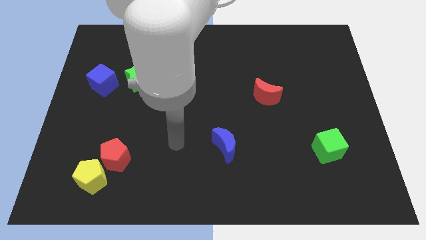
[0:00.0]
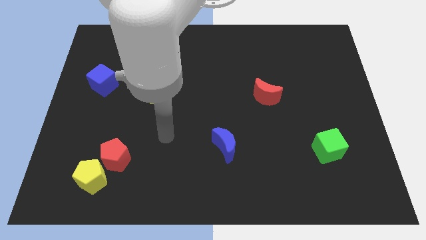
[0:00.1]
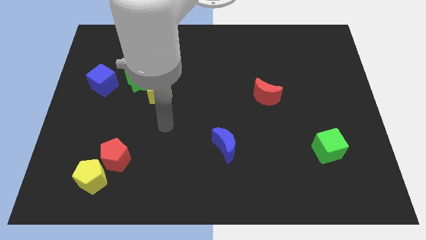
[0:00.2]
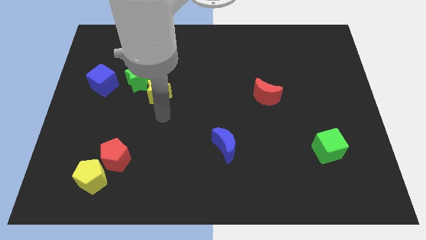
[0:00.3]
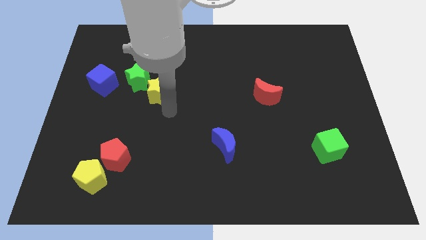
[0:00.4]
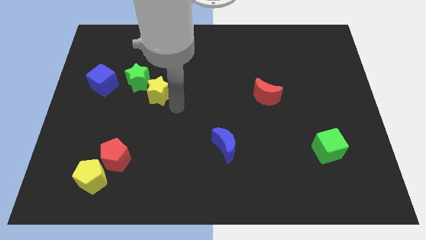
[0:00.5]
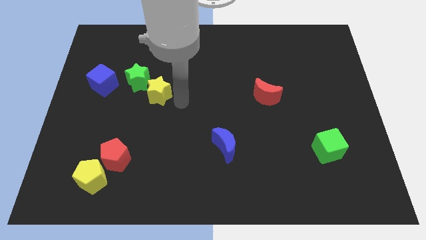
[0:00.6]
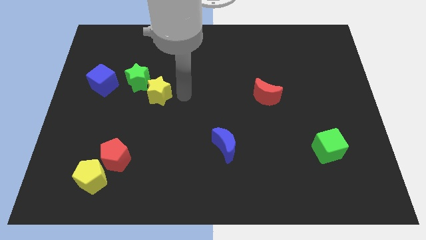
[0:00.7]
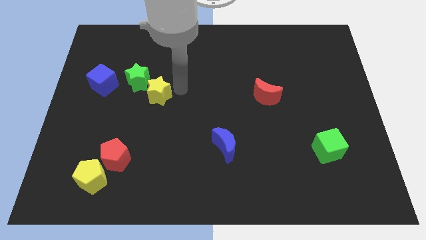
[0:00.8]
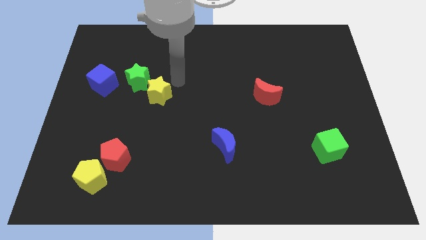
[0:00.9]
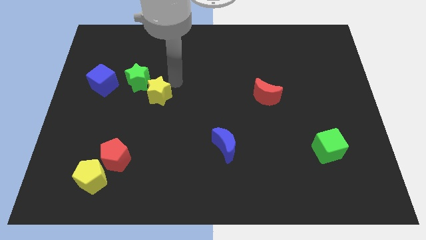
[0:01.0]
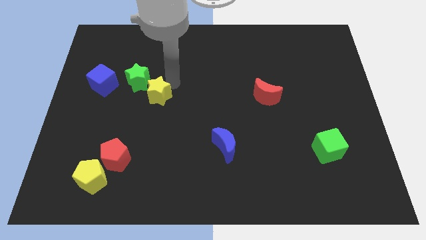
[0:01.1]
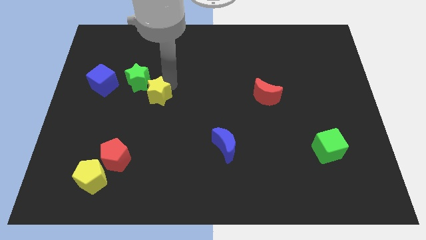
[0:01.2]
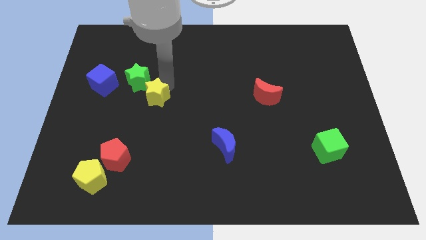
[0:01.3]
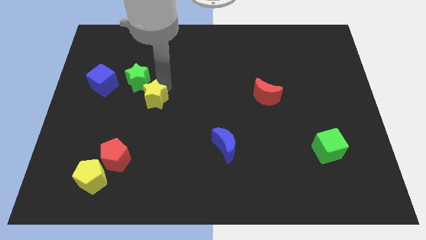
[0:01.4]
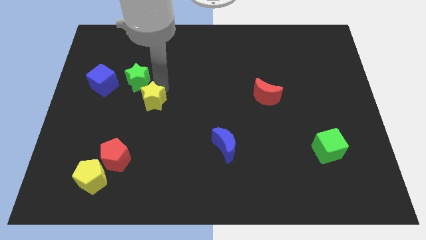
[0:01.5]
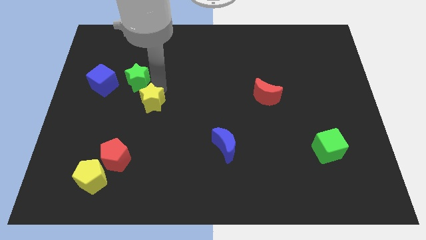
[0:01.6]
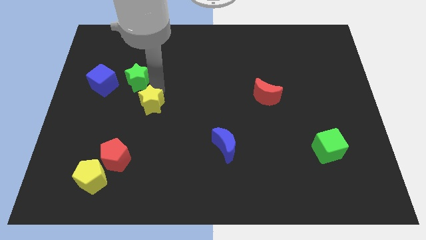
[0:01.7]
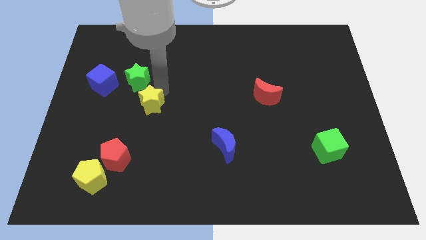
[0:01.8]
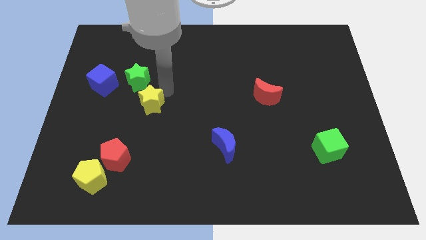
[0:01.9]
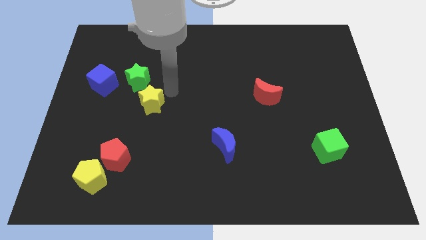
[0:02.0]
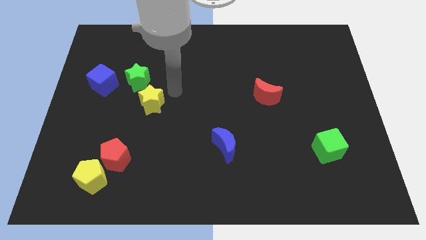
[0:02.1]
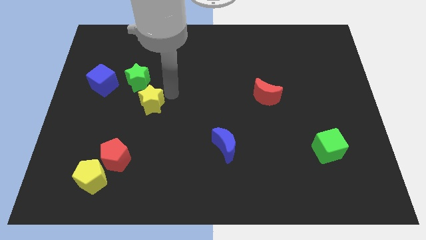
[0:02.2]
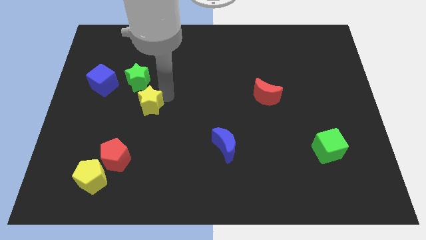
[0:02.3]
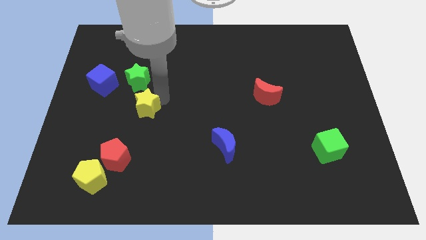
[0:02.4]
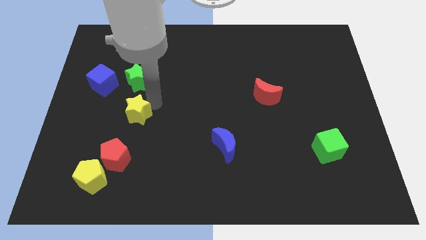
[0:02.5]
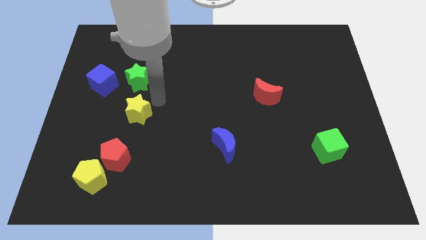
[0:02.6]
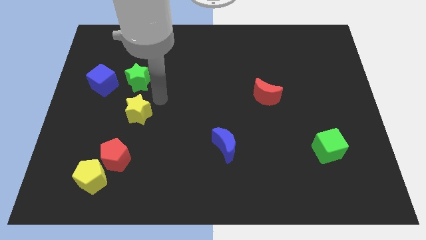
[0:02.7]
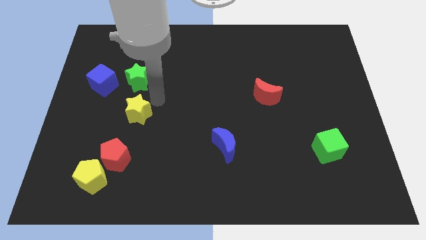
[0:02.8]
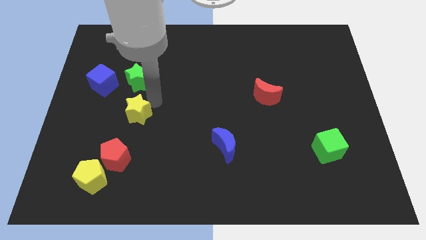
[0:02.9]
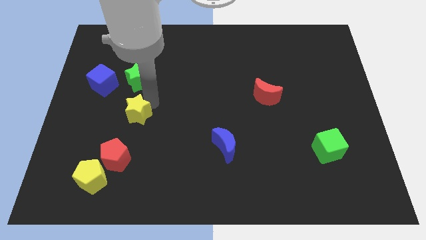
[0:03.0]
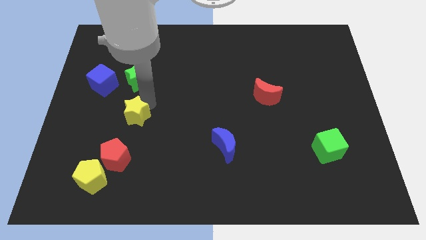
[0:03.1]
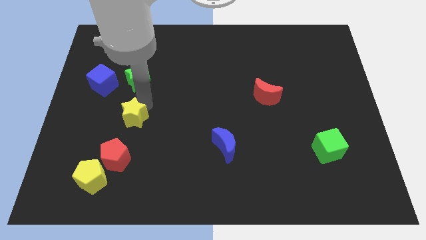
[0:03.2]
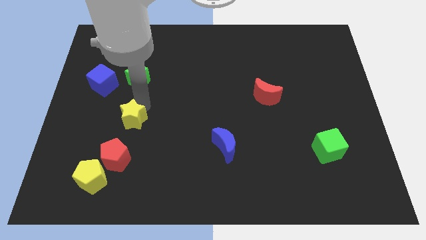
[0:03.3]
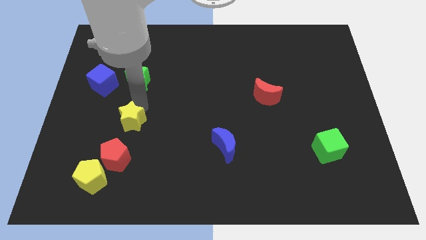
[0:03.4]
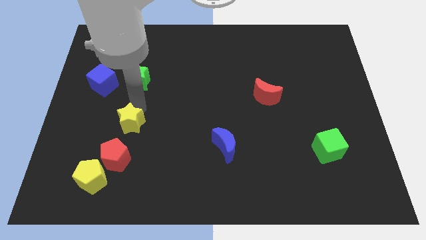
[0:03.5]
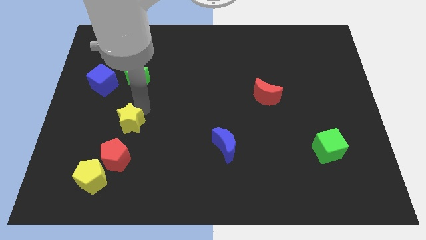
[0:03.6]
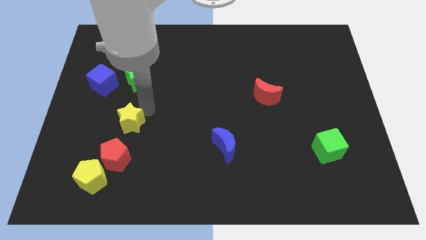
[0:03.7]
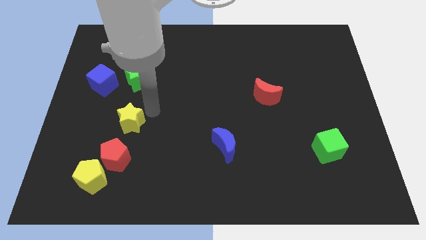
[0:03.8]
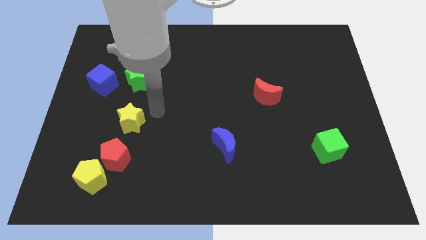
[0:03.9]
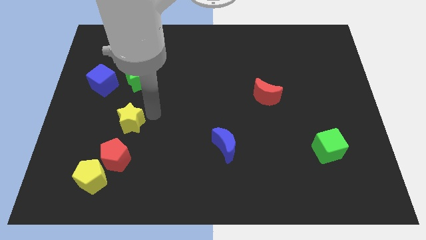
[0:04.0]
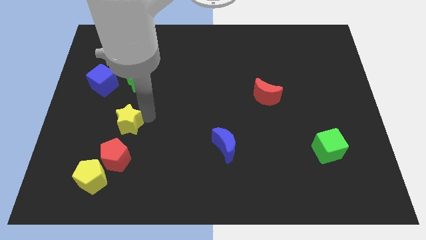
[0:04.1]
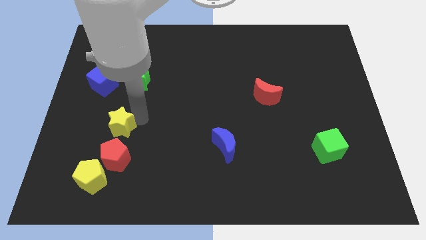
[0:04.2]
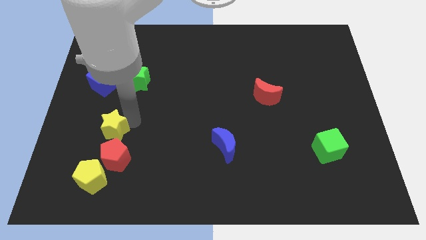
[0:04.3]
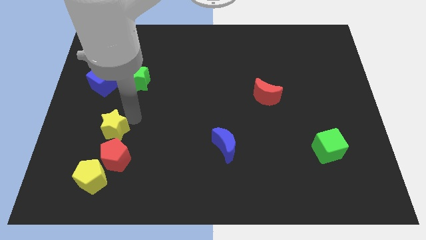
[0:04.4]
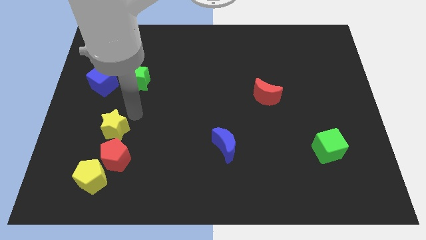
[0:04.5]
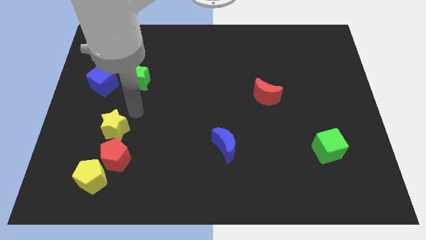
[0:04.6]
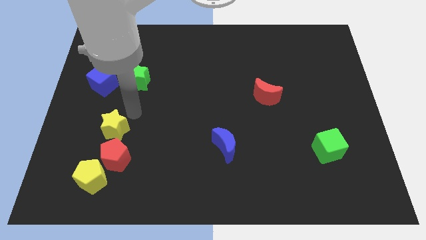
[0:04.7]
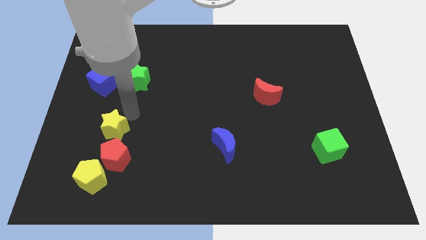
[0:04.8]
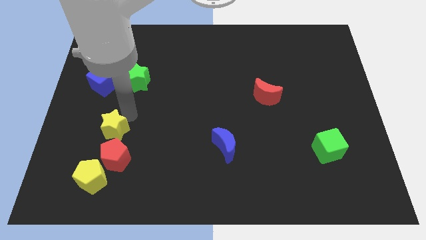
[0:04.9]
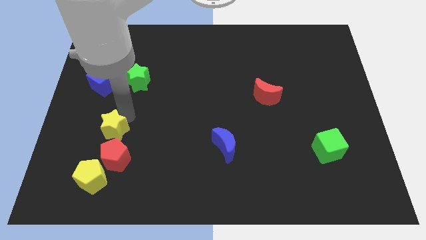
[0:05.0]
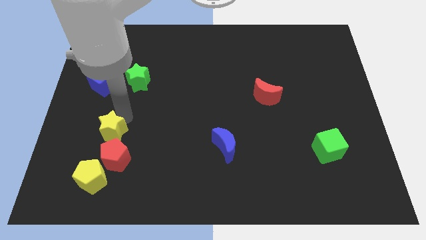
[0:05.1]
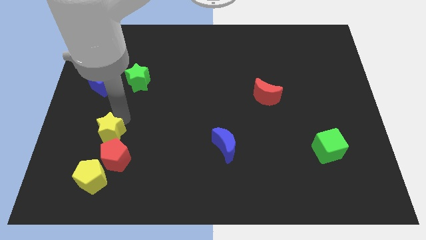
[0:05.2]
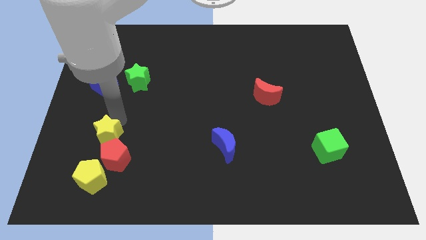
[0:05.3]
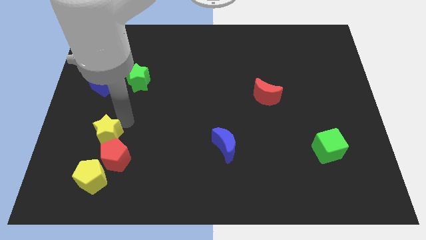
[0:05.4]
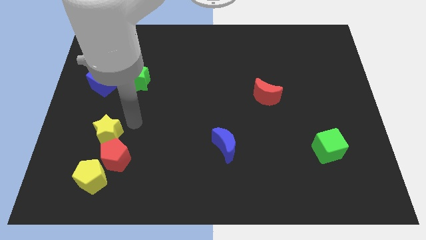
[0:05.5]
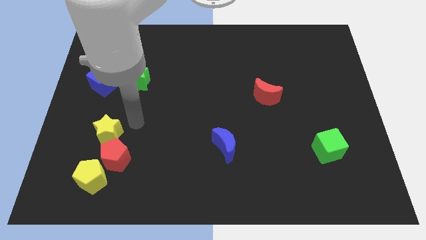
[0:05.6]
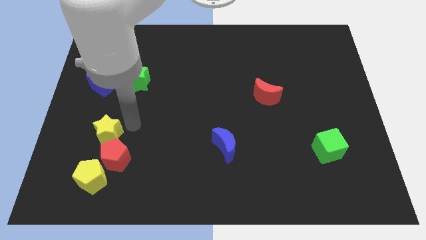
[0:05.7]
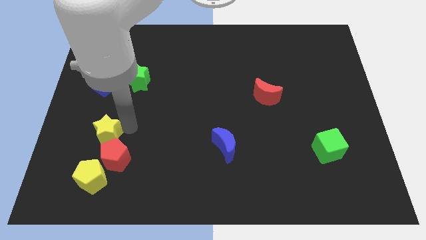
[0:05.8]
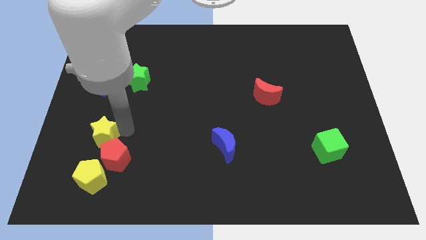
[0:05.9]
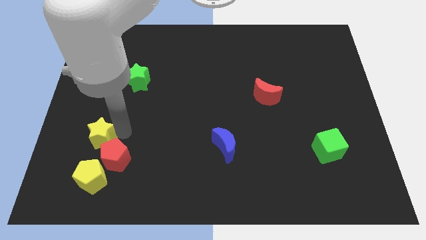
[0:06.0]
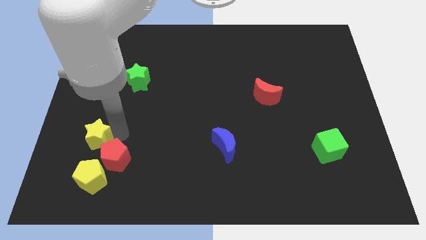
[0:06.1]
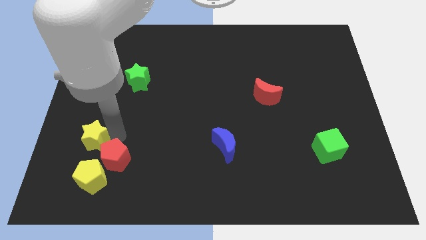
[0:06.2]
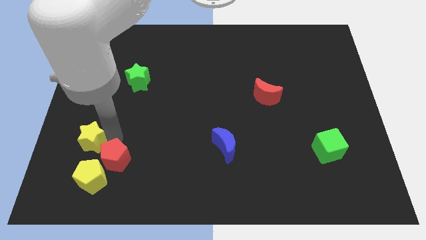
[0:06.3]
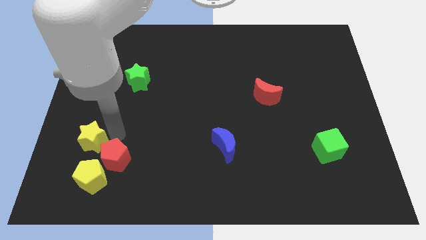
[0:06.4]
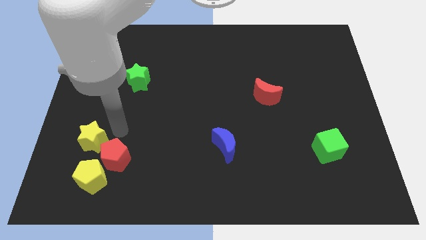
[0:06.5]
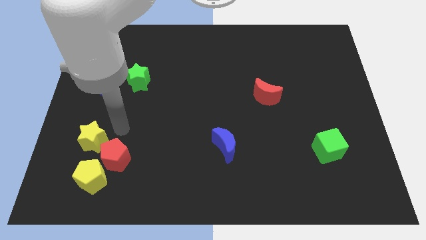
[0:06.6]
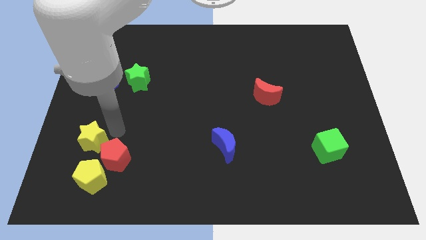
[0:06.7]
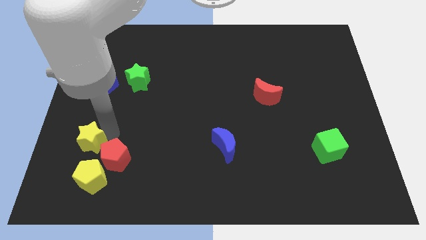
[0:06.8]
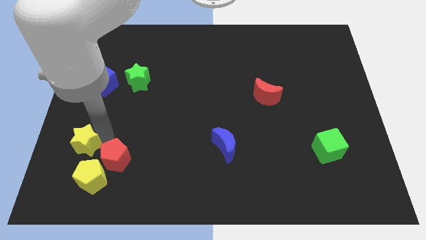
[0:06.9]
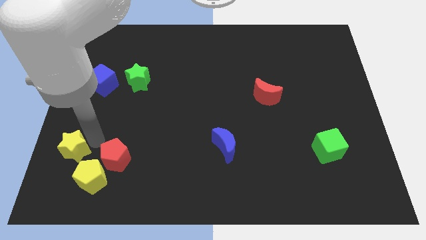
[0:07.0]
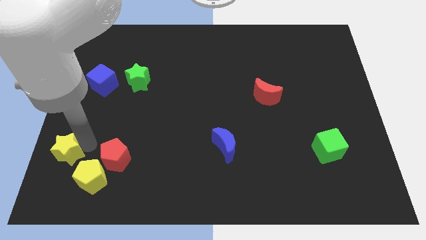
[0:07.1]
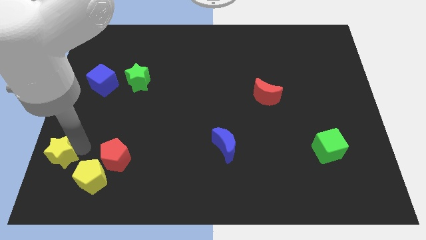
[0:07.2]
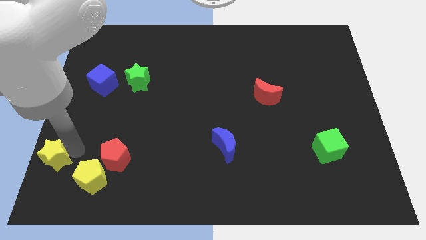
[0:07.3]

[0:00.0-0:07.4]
slide the yellow star to the lower left corner
